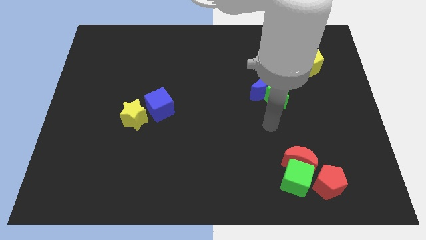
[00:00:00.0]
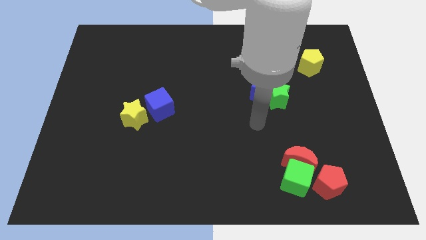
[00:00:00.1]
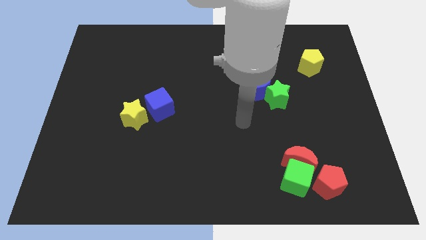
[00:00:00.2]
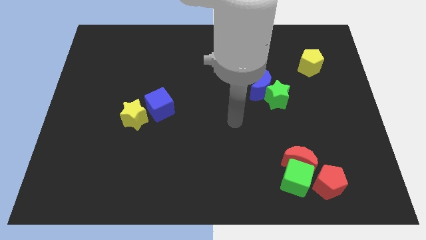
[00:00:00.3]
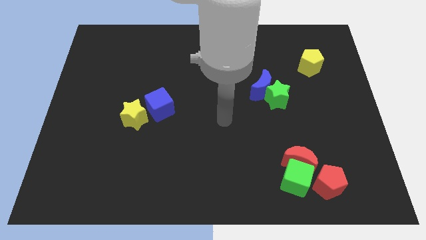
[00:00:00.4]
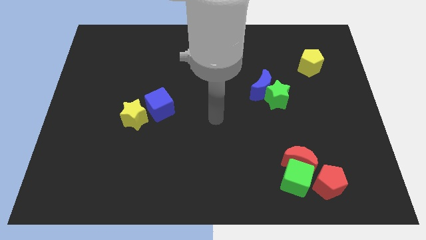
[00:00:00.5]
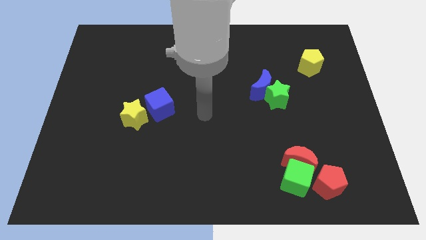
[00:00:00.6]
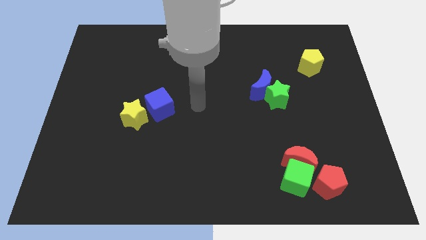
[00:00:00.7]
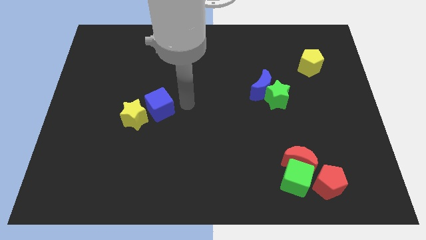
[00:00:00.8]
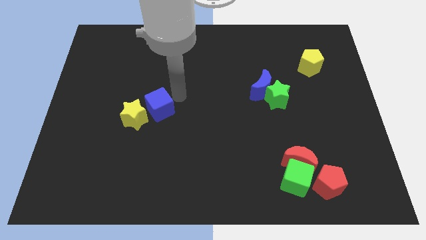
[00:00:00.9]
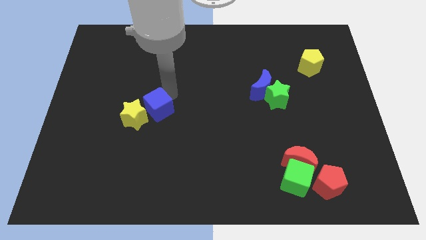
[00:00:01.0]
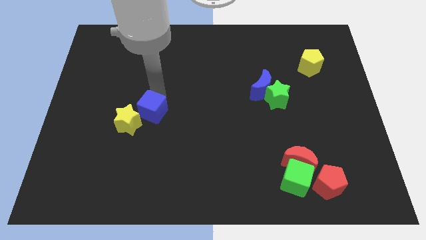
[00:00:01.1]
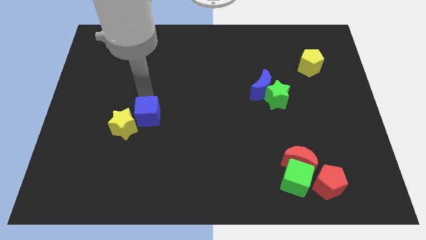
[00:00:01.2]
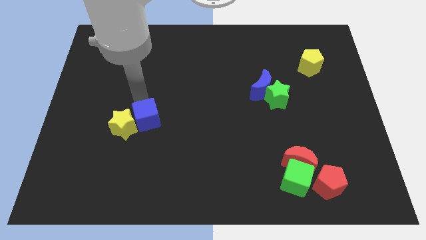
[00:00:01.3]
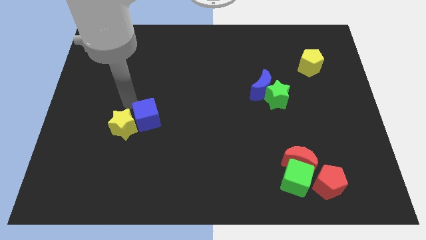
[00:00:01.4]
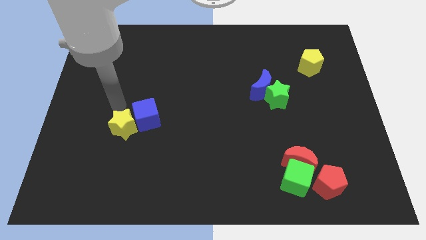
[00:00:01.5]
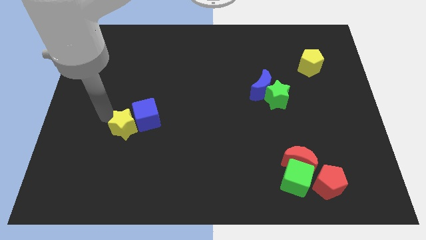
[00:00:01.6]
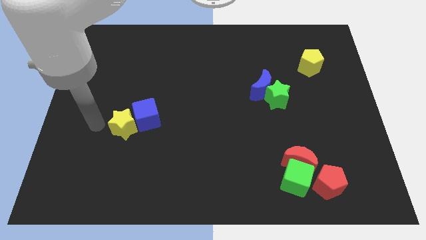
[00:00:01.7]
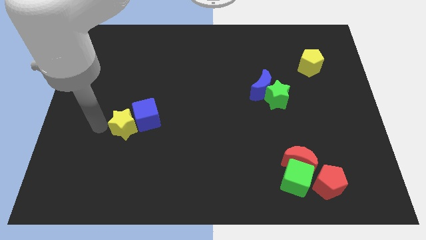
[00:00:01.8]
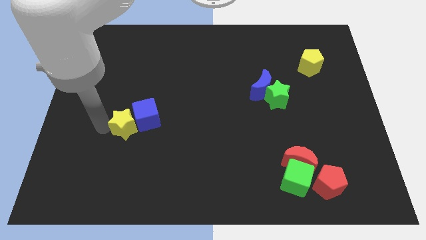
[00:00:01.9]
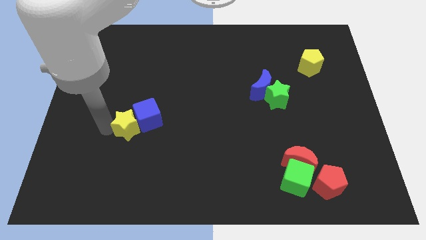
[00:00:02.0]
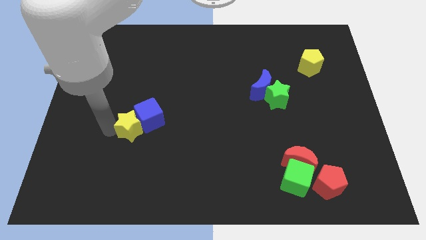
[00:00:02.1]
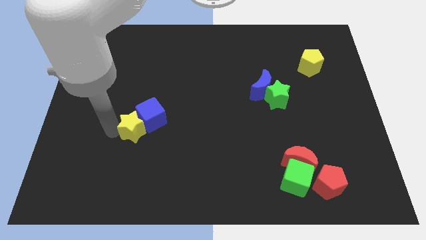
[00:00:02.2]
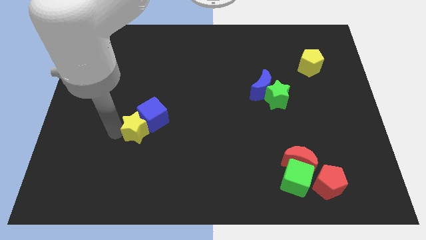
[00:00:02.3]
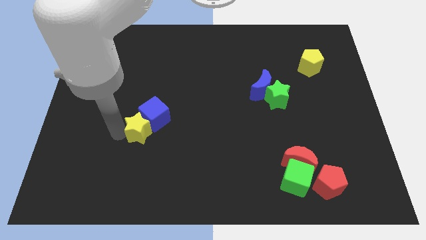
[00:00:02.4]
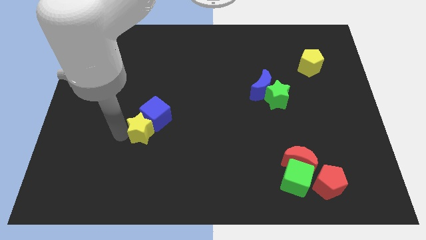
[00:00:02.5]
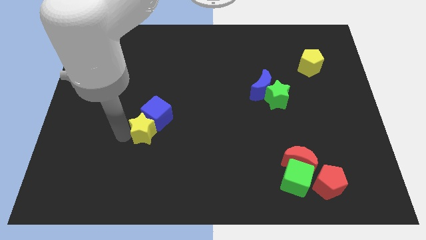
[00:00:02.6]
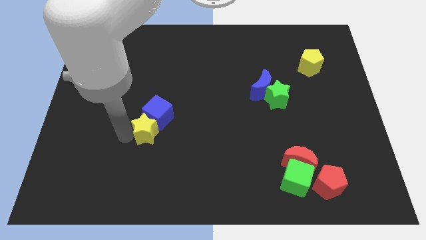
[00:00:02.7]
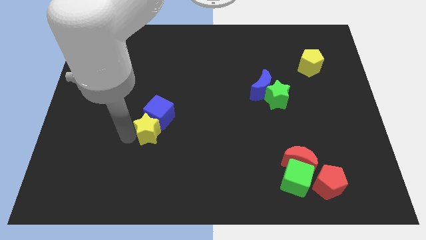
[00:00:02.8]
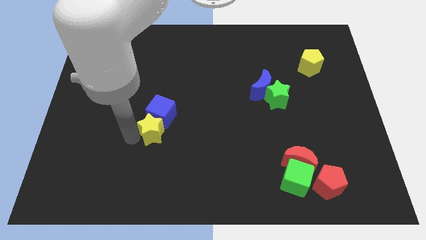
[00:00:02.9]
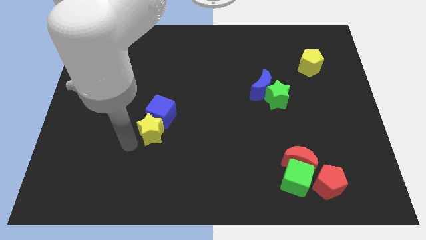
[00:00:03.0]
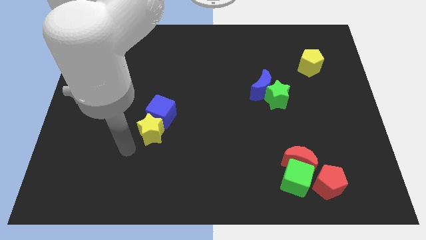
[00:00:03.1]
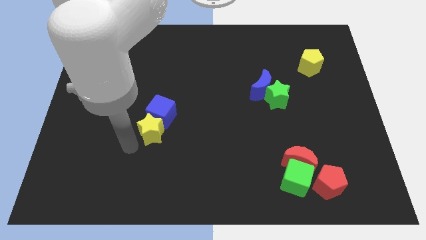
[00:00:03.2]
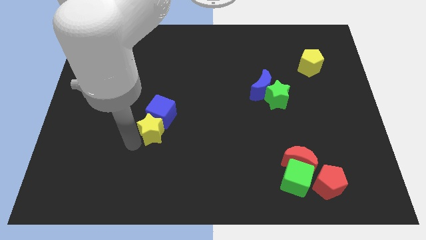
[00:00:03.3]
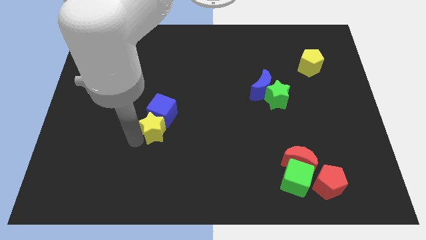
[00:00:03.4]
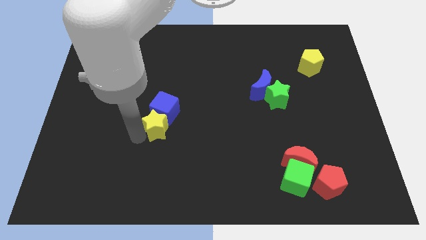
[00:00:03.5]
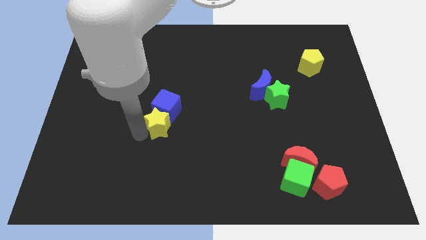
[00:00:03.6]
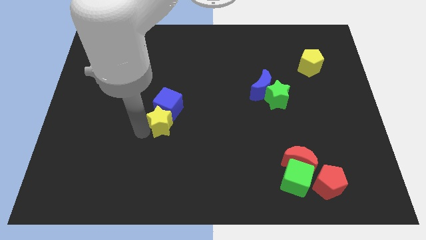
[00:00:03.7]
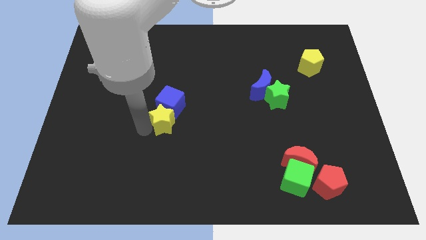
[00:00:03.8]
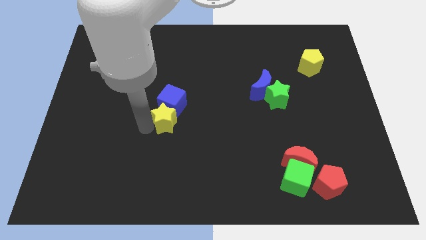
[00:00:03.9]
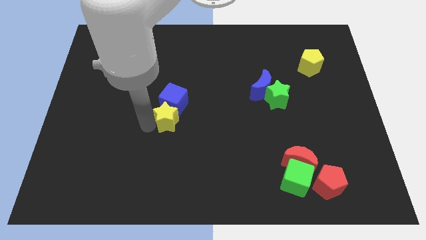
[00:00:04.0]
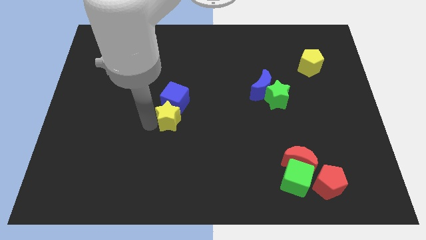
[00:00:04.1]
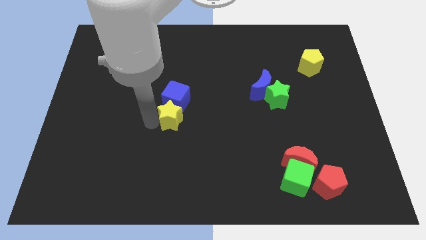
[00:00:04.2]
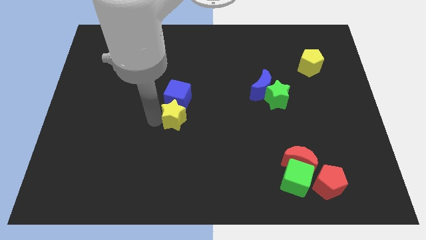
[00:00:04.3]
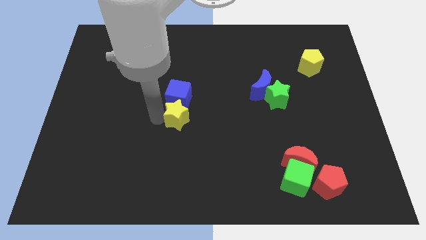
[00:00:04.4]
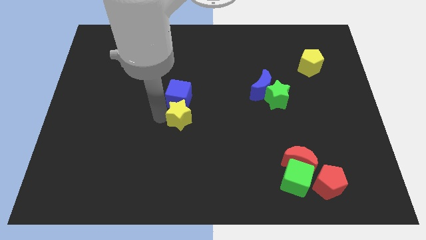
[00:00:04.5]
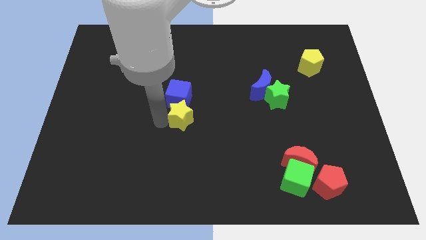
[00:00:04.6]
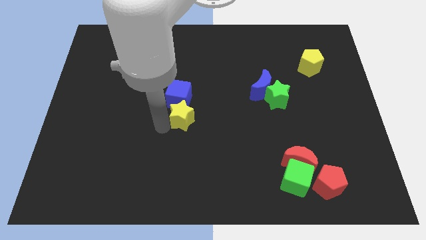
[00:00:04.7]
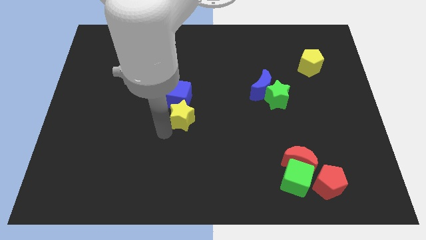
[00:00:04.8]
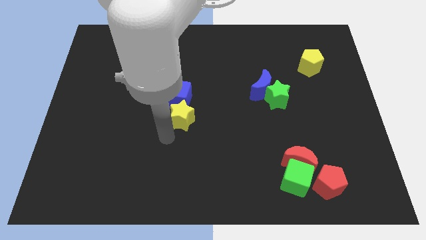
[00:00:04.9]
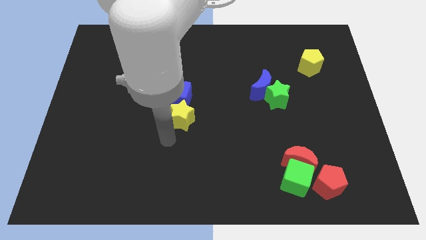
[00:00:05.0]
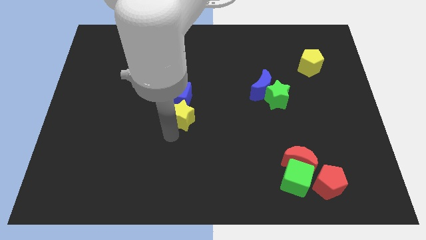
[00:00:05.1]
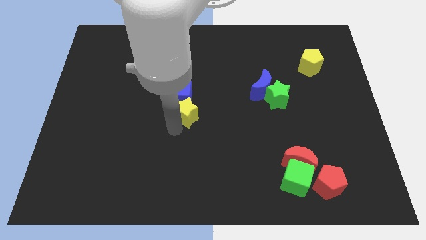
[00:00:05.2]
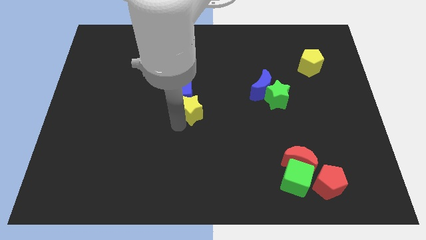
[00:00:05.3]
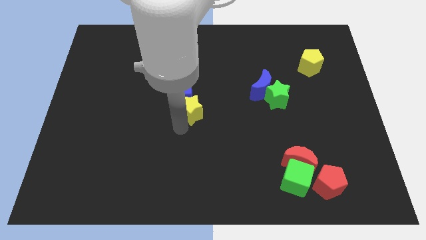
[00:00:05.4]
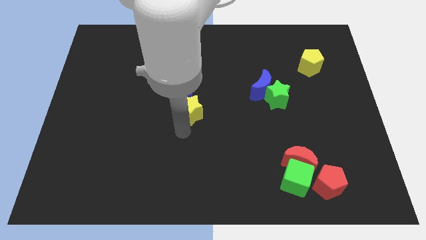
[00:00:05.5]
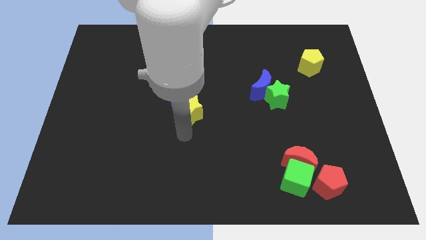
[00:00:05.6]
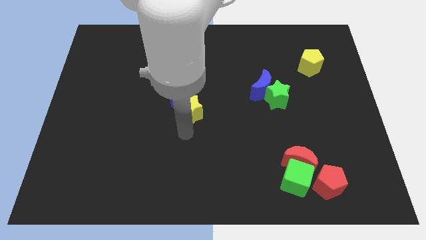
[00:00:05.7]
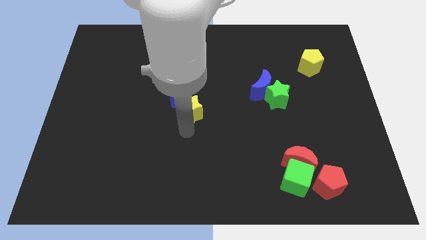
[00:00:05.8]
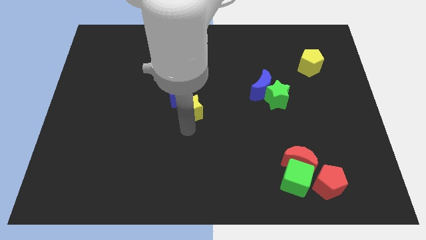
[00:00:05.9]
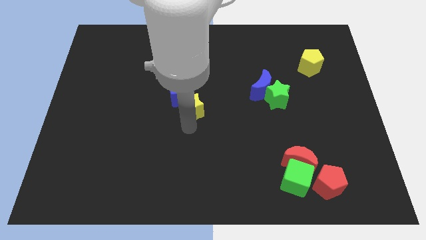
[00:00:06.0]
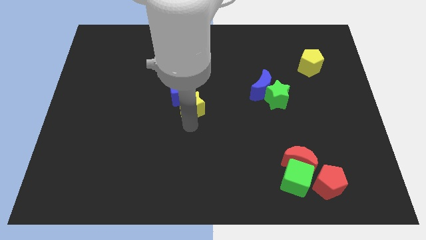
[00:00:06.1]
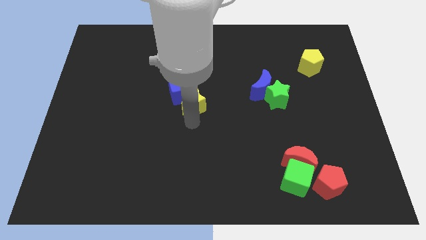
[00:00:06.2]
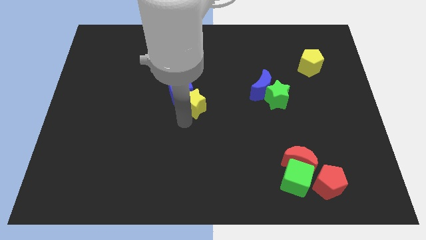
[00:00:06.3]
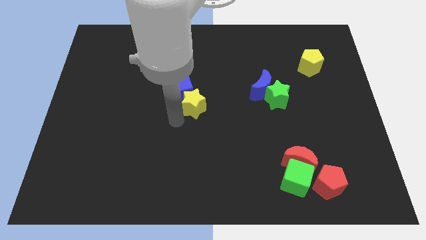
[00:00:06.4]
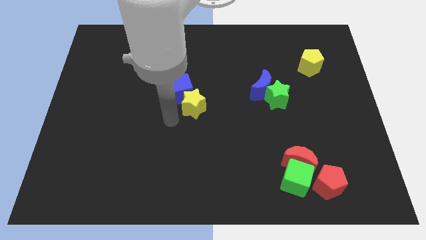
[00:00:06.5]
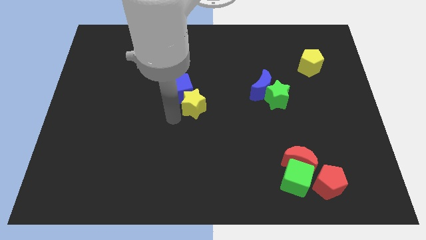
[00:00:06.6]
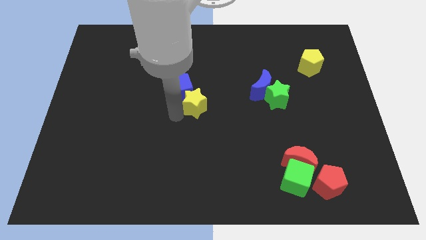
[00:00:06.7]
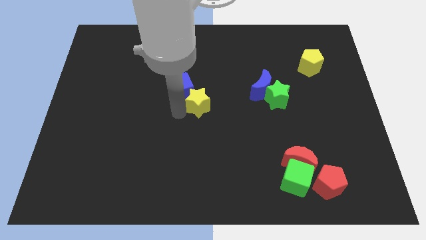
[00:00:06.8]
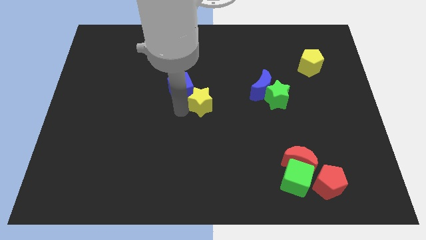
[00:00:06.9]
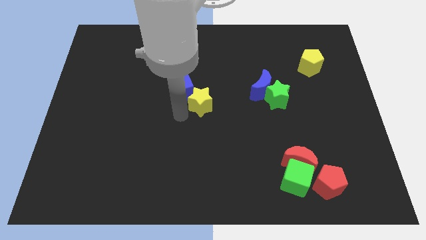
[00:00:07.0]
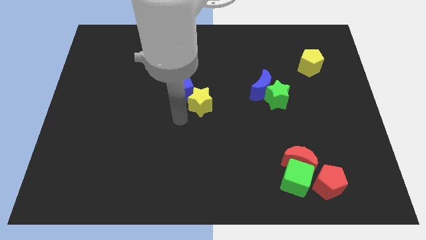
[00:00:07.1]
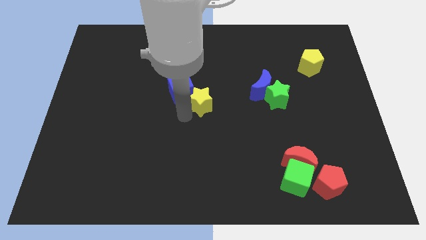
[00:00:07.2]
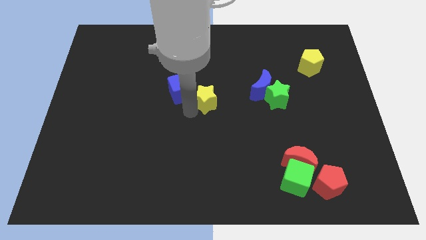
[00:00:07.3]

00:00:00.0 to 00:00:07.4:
push the yellow star left of the blue moon
